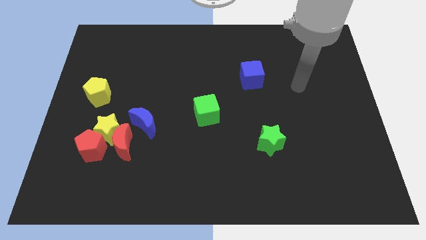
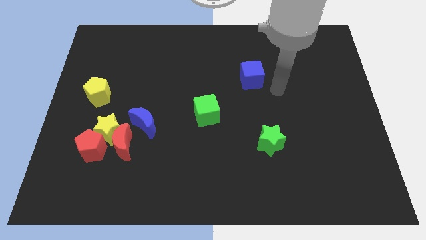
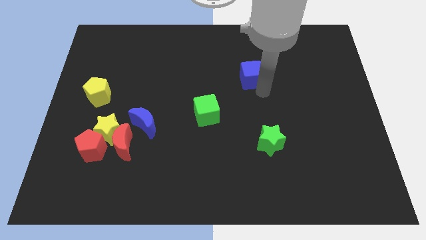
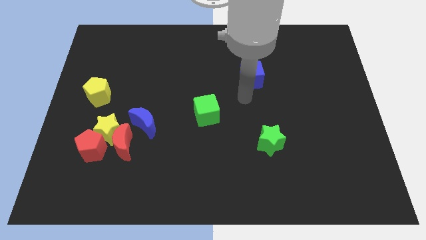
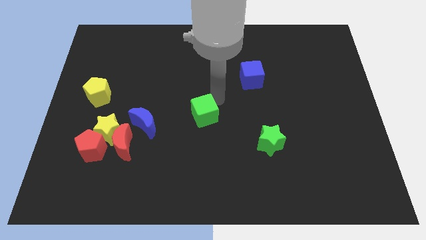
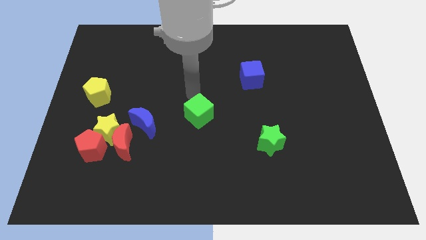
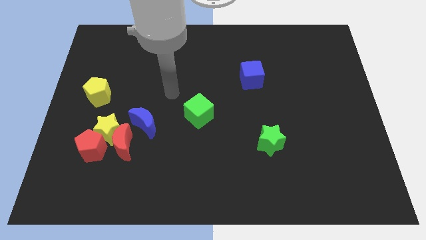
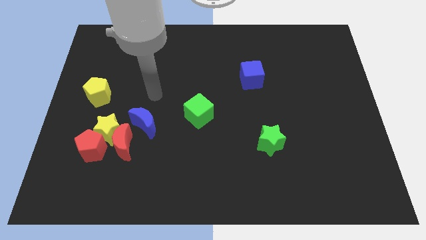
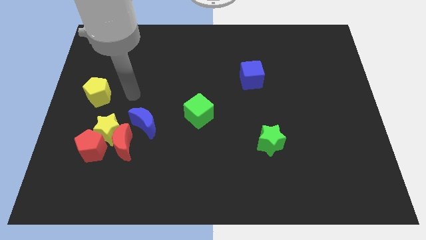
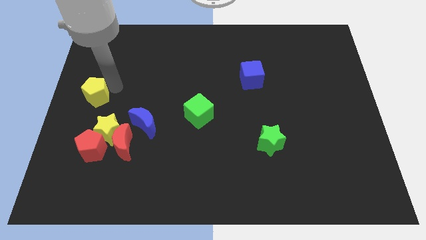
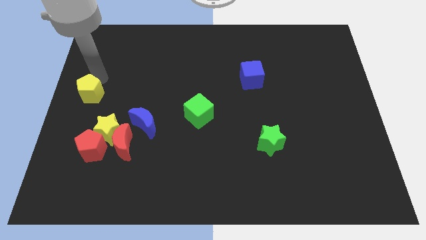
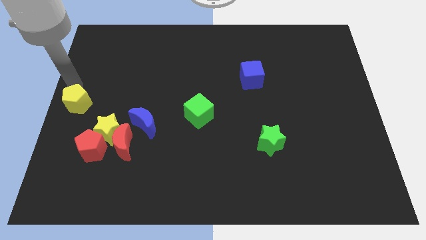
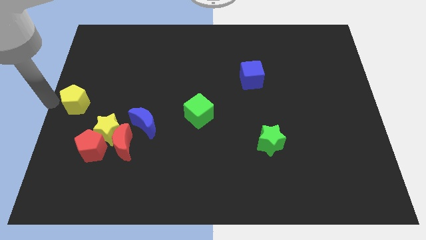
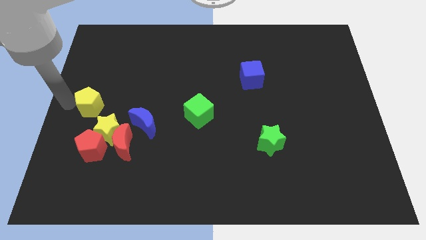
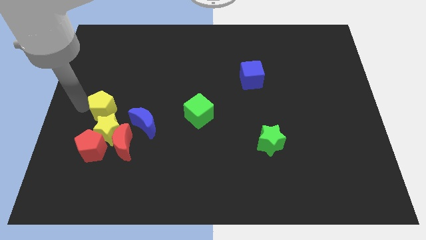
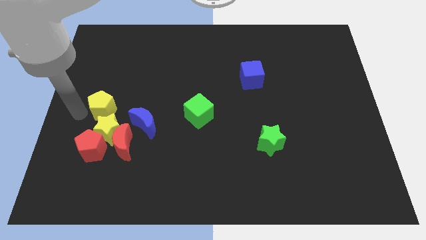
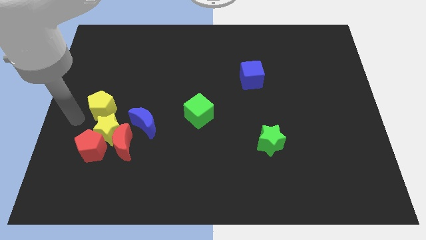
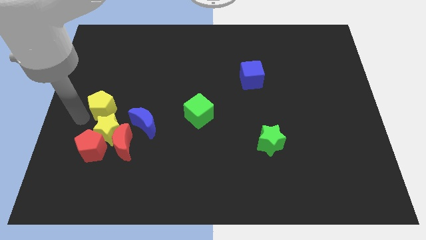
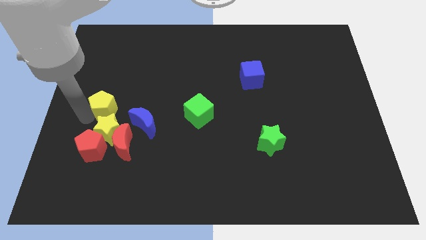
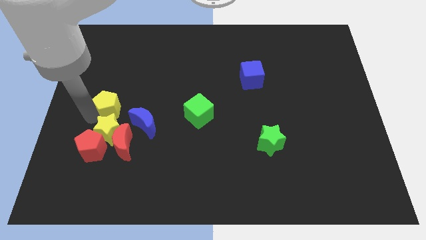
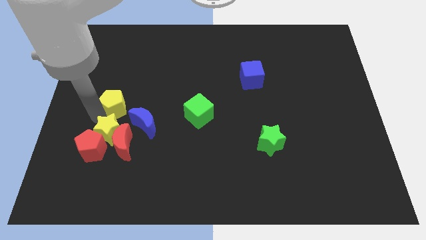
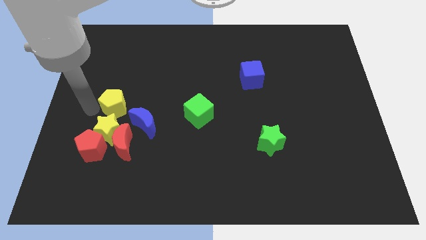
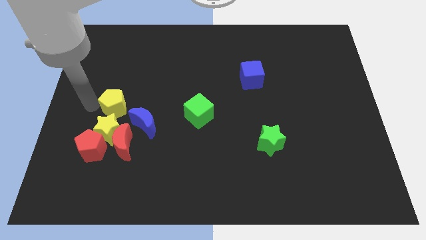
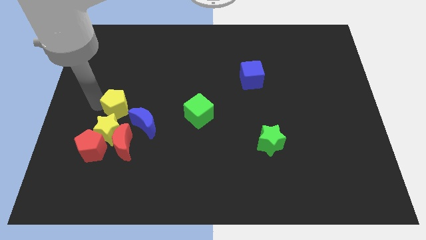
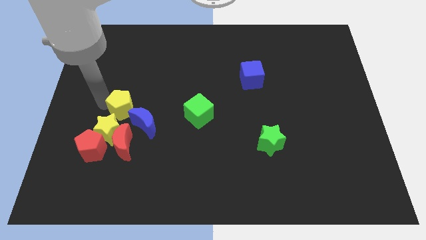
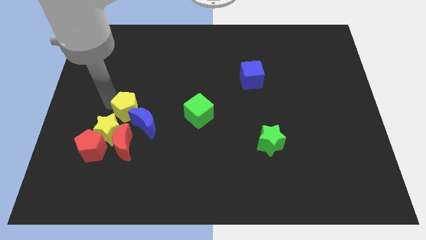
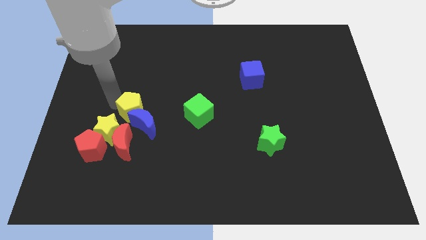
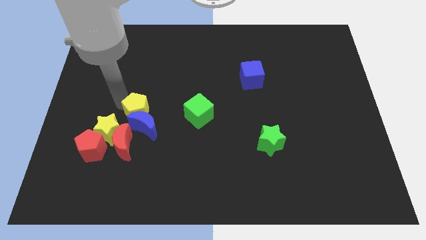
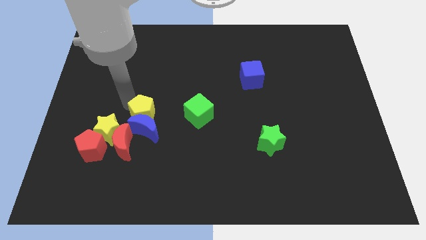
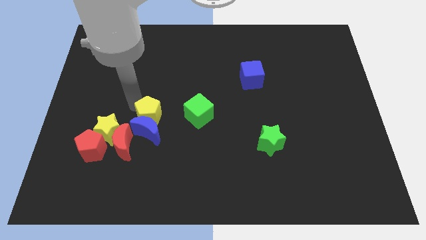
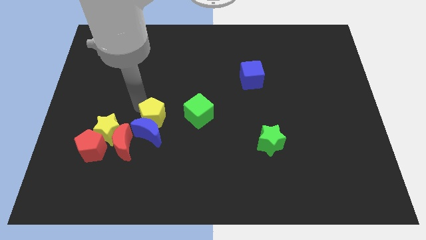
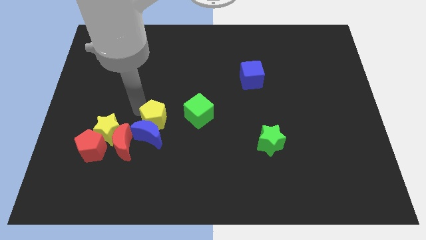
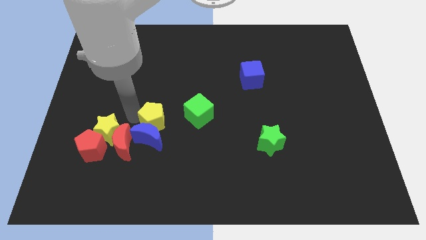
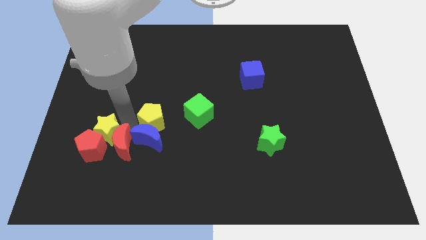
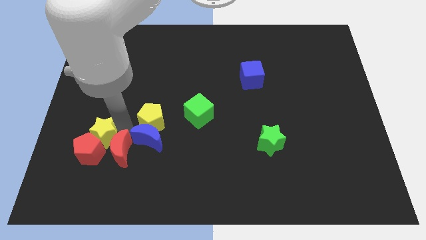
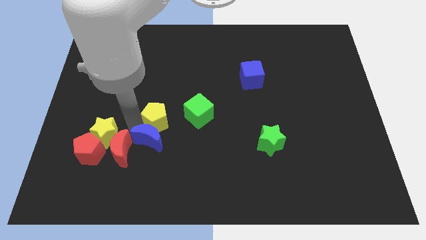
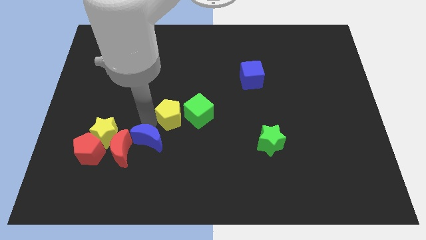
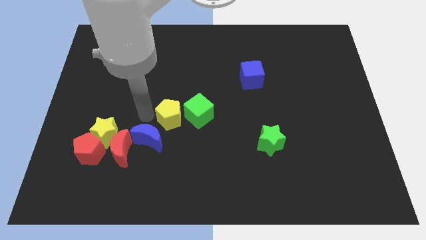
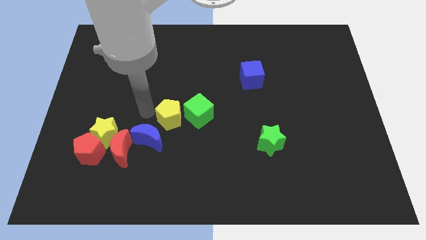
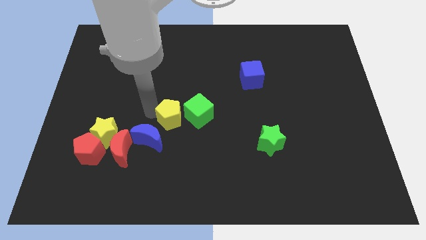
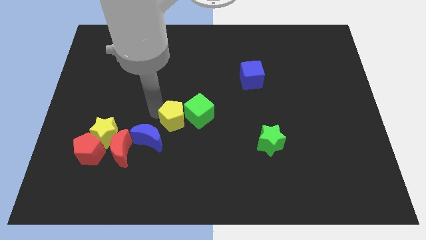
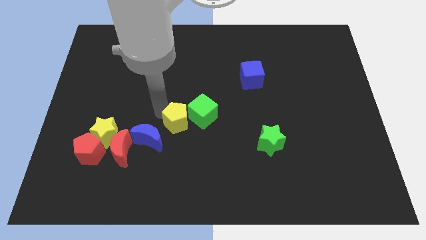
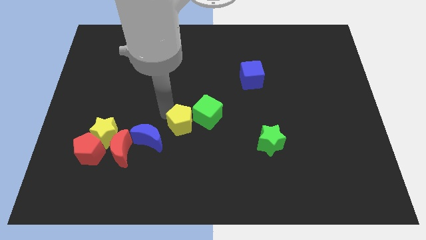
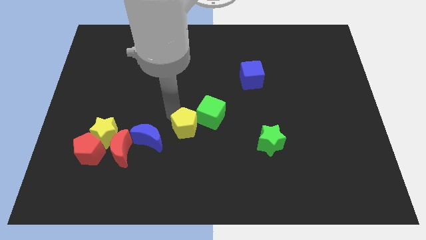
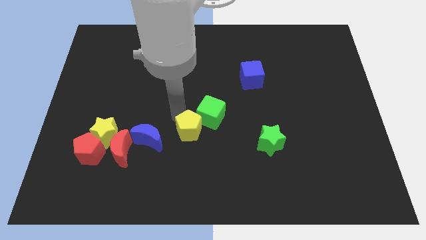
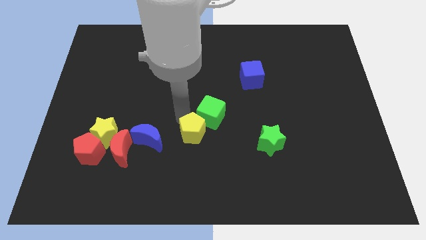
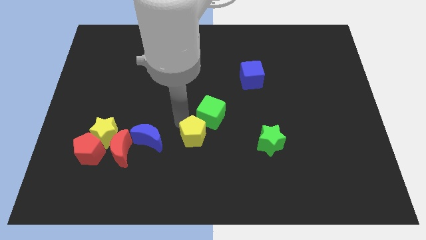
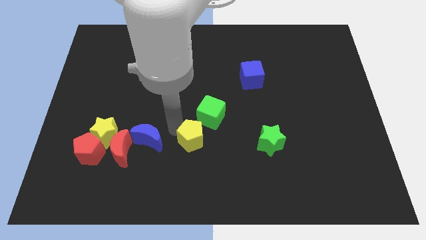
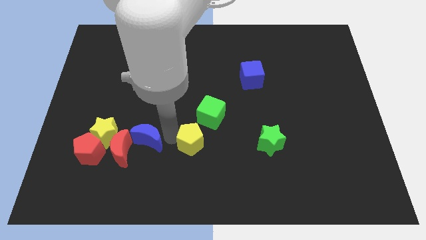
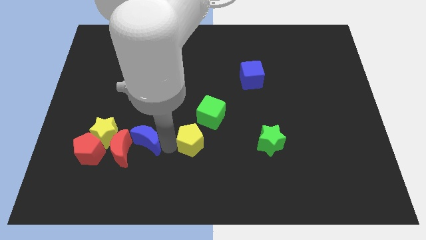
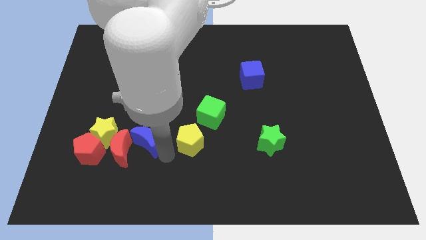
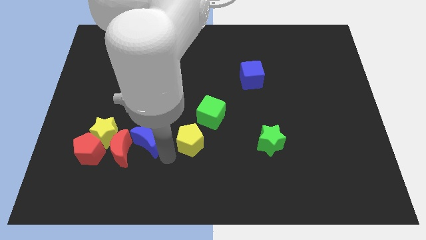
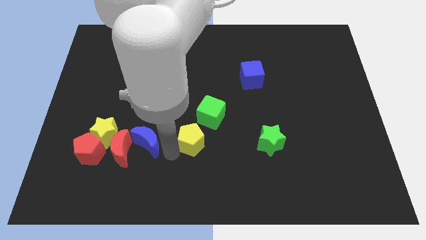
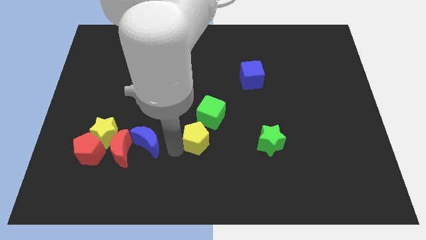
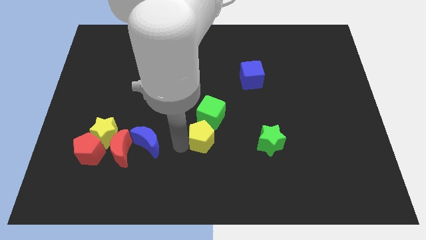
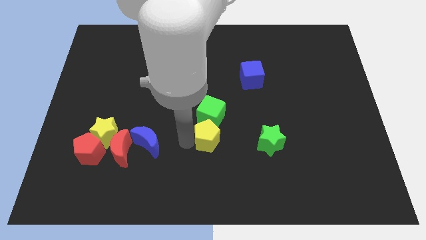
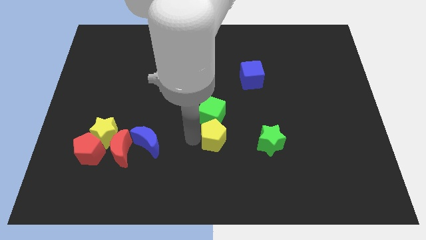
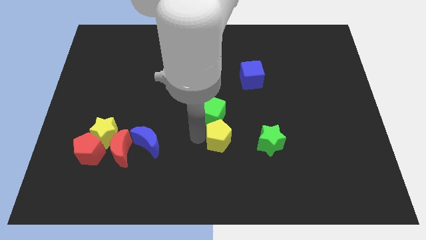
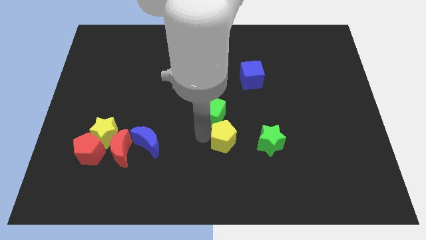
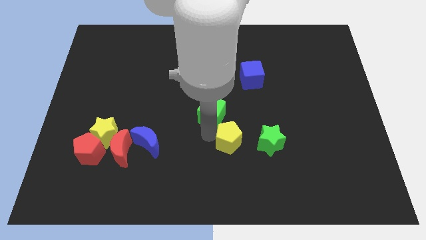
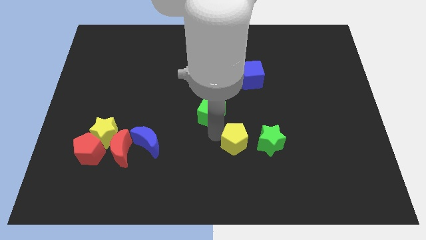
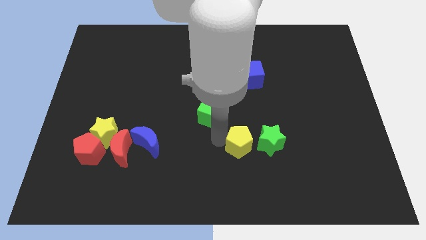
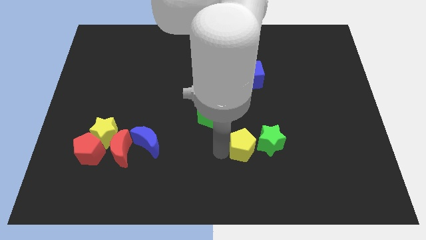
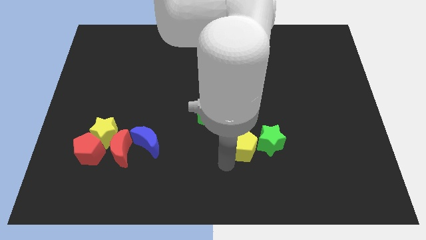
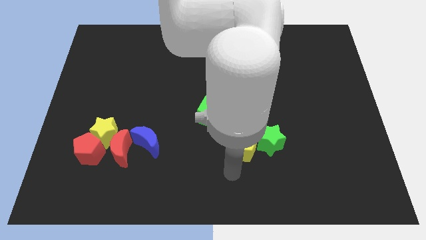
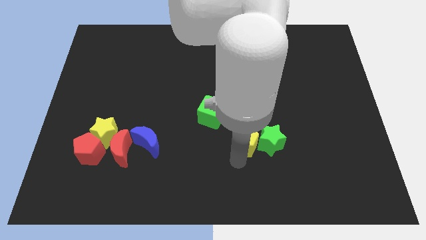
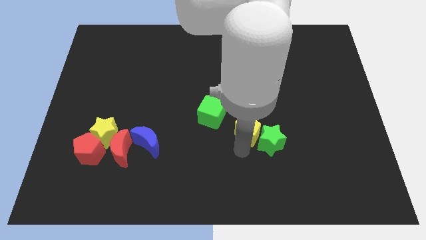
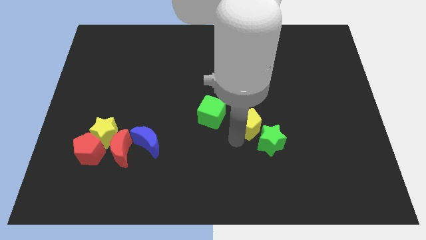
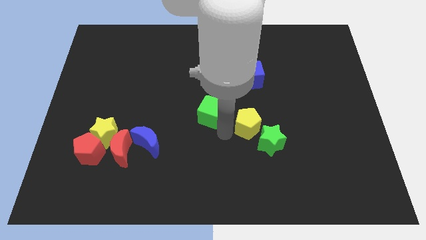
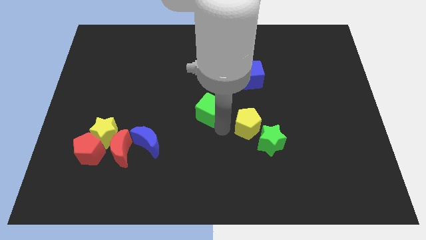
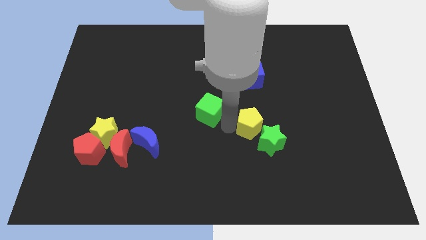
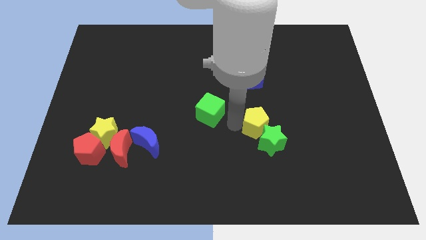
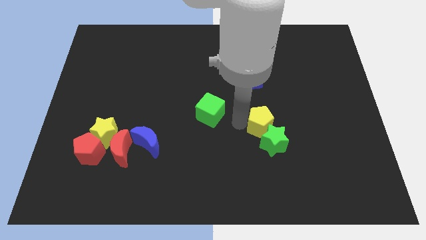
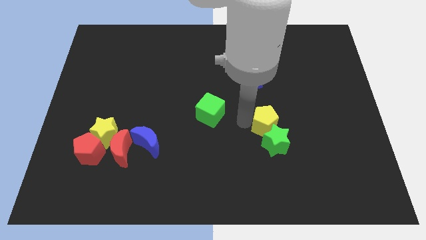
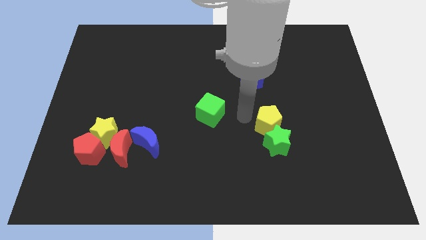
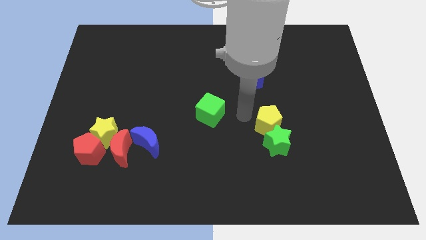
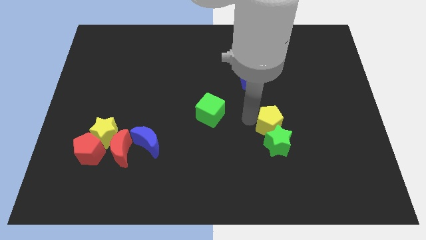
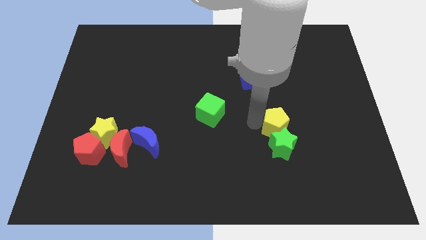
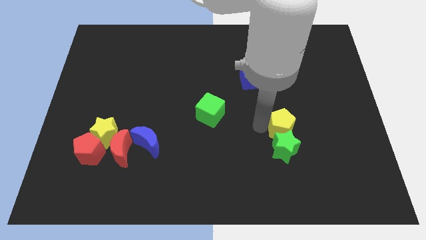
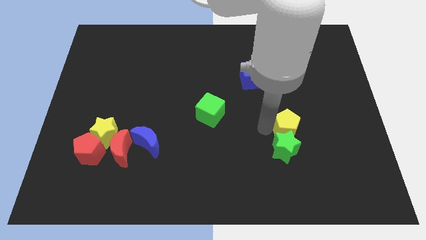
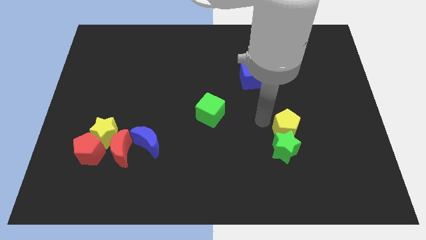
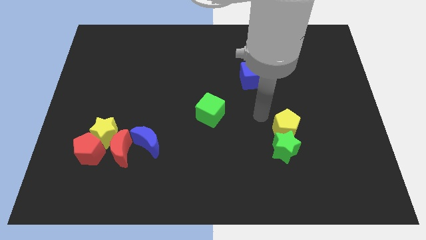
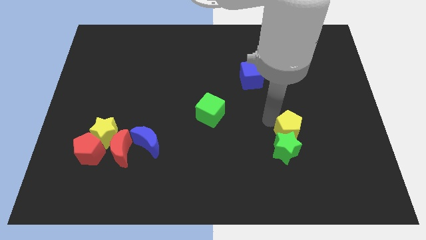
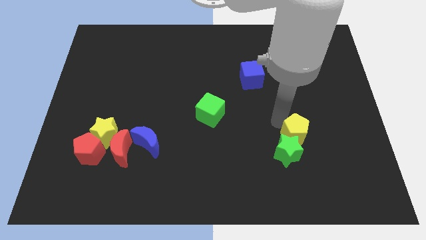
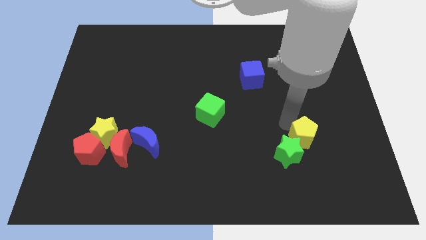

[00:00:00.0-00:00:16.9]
slide the yellow pentagon just right of the green star
